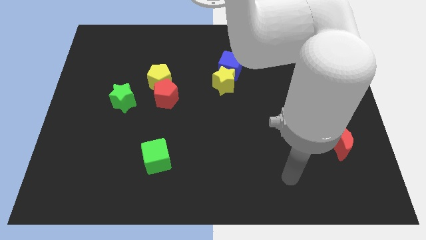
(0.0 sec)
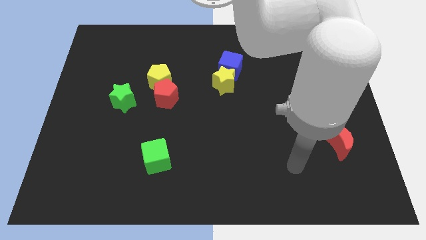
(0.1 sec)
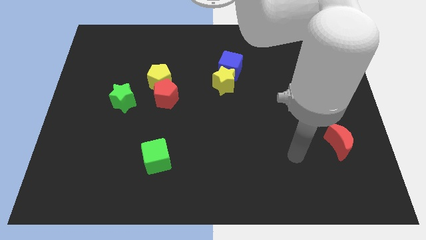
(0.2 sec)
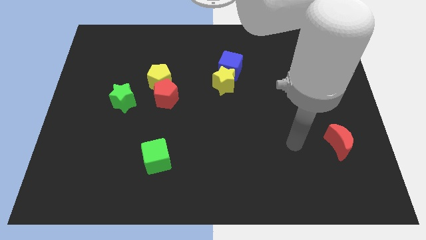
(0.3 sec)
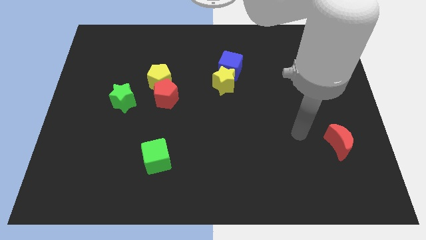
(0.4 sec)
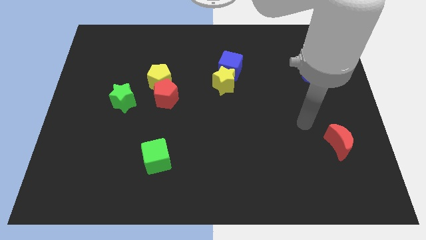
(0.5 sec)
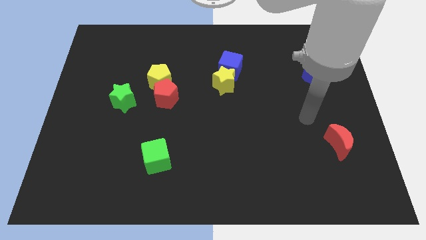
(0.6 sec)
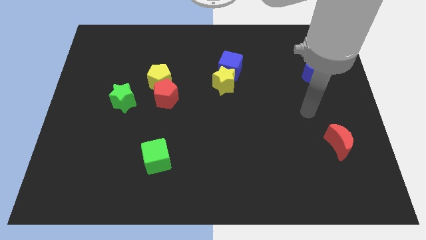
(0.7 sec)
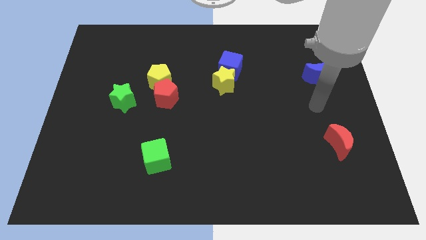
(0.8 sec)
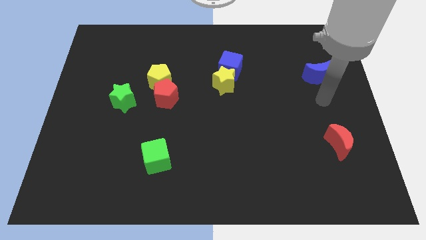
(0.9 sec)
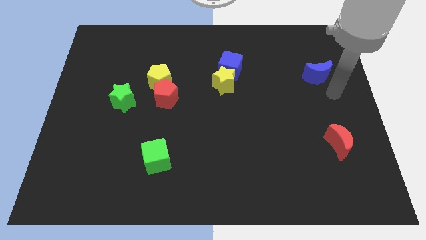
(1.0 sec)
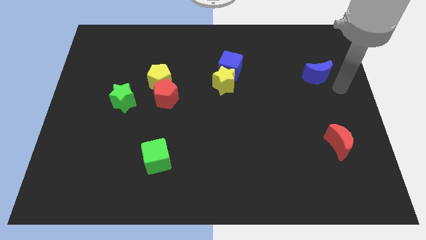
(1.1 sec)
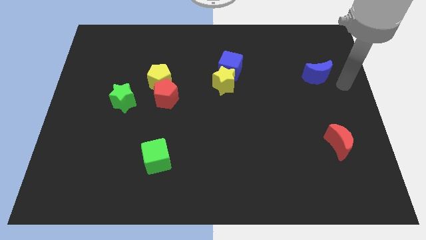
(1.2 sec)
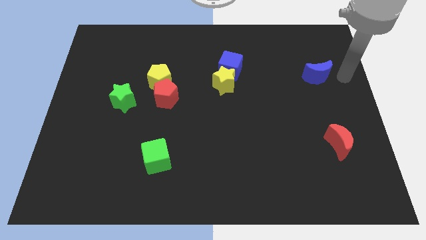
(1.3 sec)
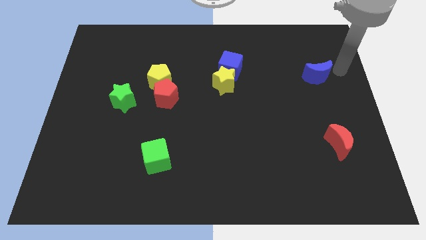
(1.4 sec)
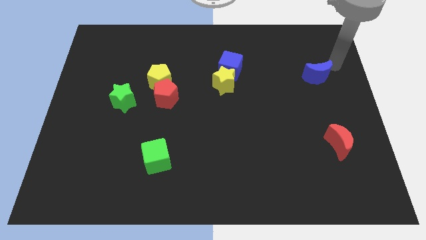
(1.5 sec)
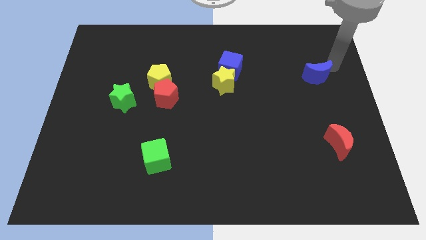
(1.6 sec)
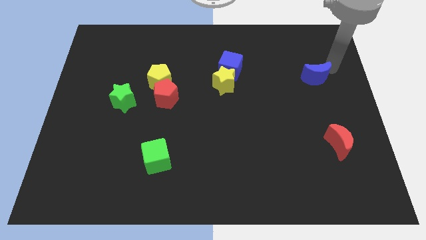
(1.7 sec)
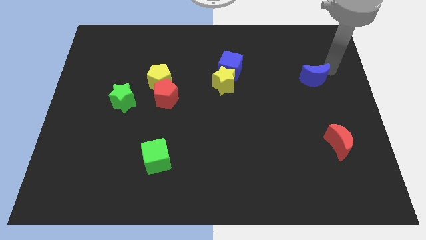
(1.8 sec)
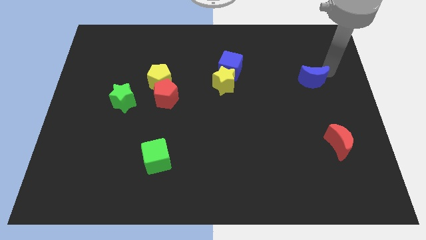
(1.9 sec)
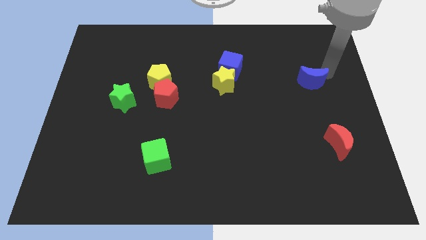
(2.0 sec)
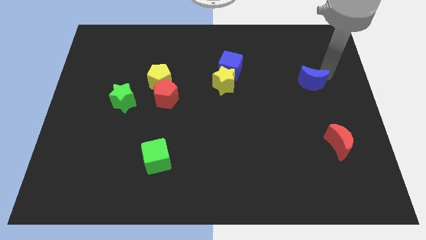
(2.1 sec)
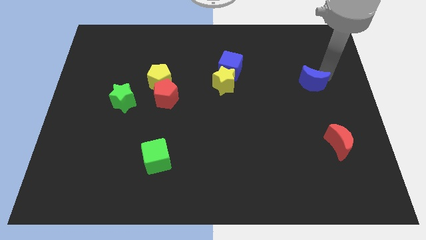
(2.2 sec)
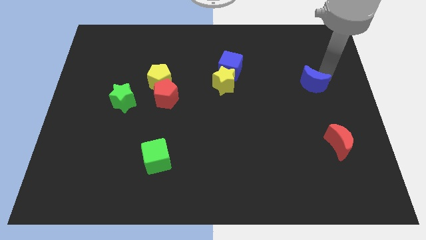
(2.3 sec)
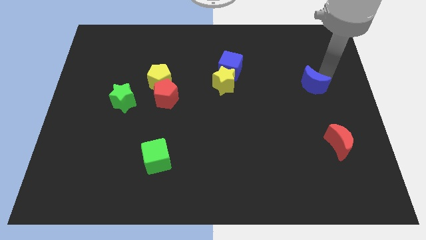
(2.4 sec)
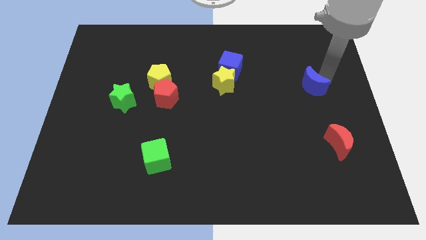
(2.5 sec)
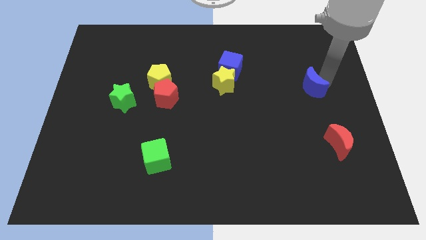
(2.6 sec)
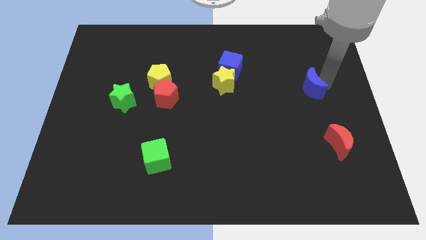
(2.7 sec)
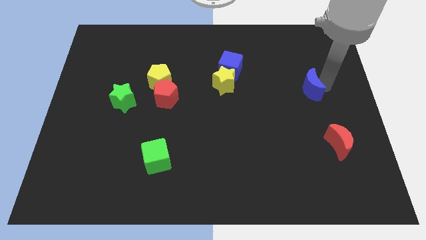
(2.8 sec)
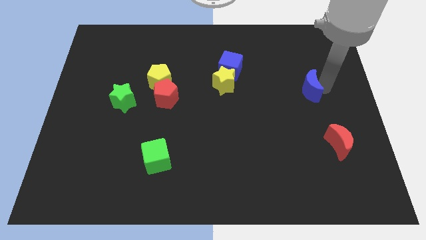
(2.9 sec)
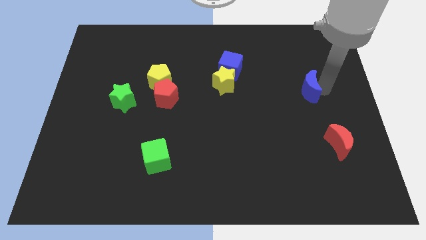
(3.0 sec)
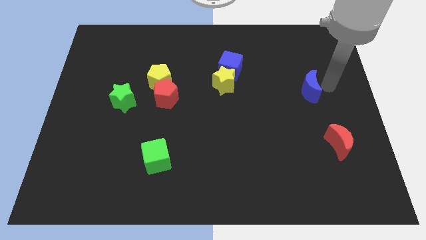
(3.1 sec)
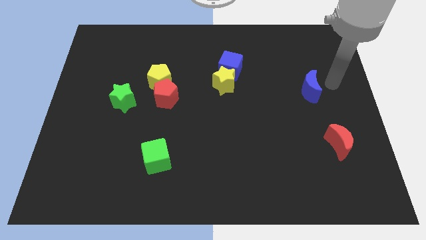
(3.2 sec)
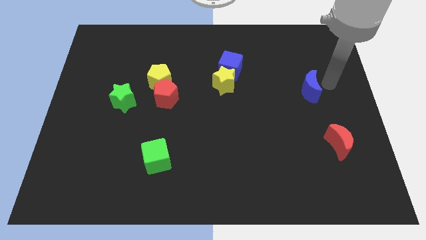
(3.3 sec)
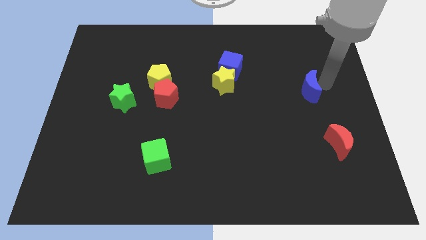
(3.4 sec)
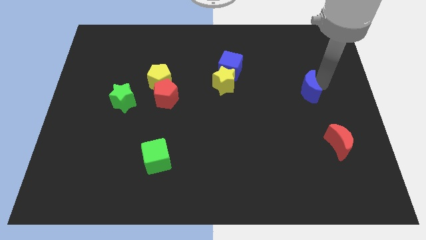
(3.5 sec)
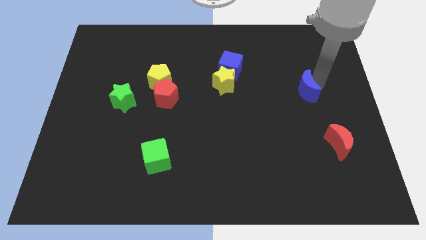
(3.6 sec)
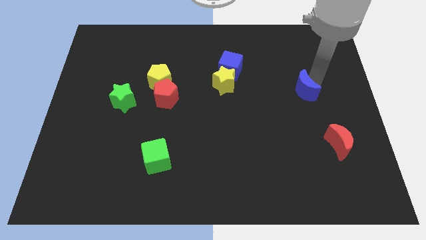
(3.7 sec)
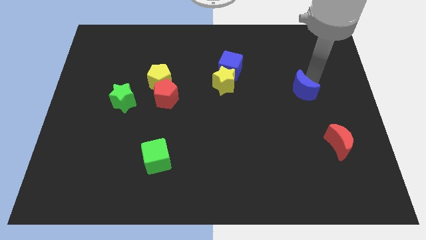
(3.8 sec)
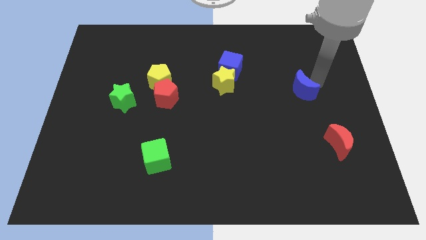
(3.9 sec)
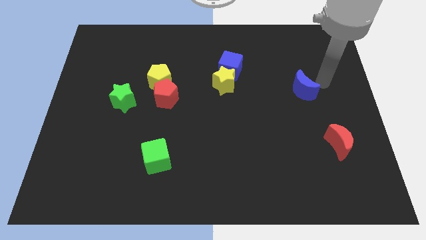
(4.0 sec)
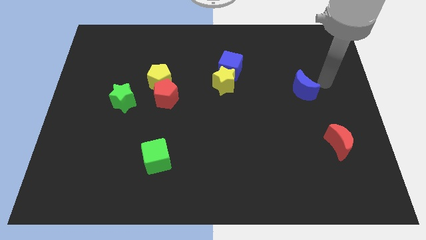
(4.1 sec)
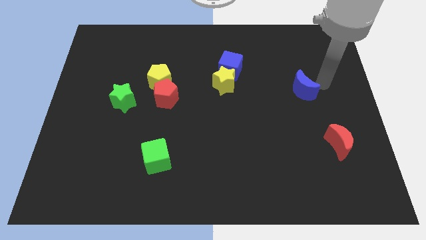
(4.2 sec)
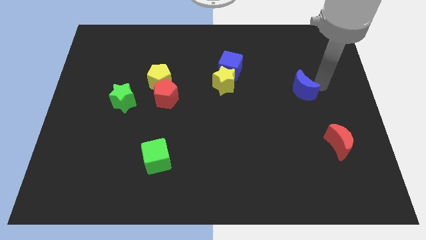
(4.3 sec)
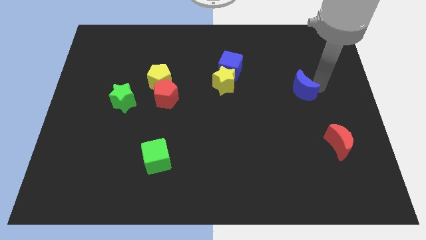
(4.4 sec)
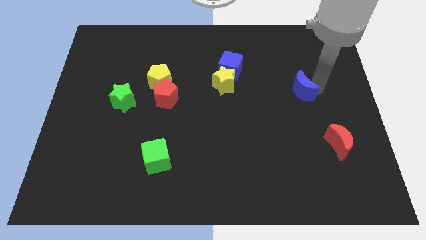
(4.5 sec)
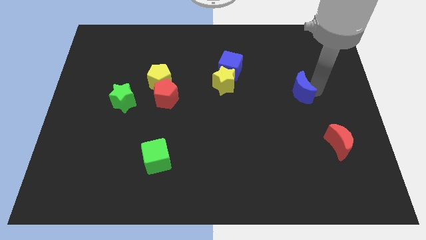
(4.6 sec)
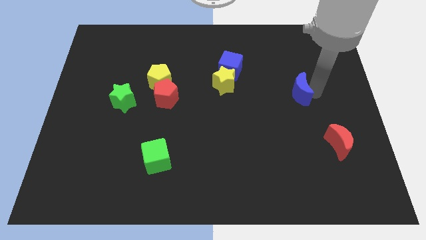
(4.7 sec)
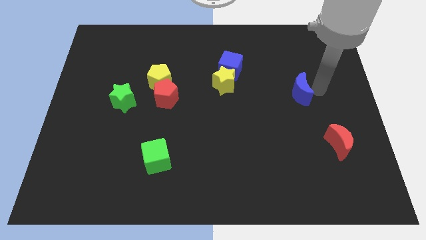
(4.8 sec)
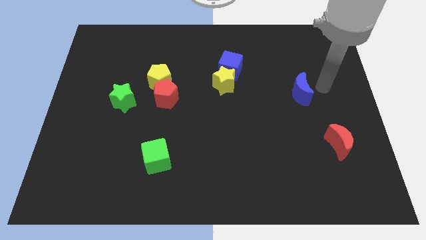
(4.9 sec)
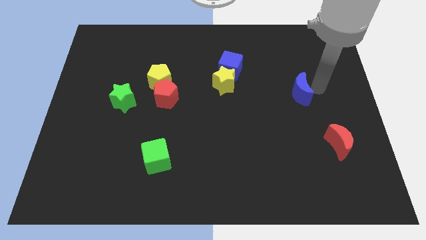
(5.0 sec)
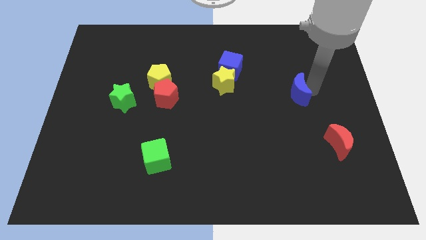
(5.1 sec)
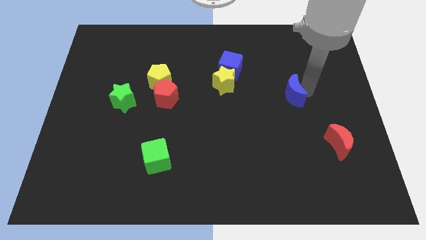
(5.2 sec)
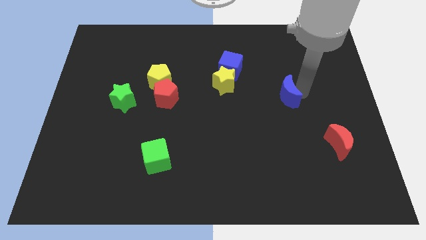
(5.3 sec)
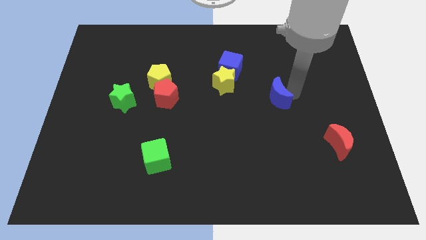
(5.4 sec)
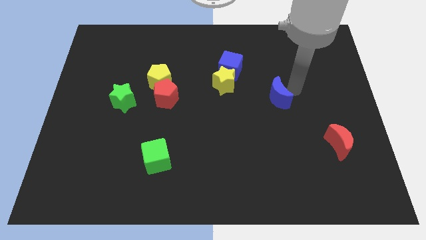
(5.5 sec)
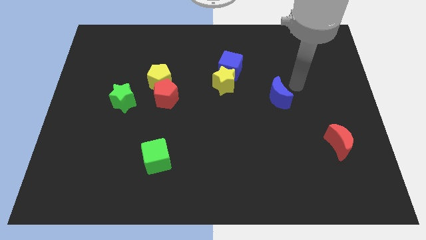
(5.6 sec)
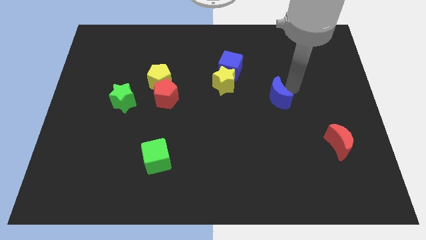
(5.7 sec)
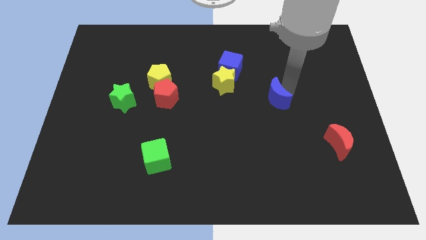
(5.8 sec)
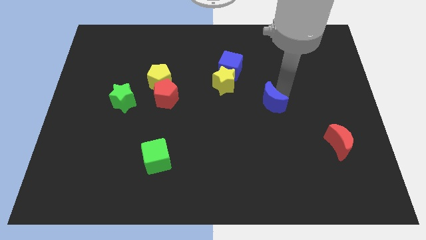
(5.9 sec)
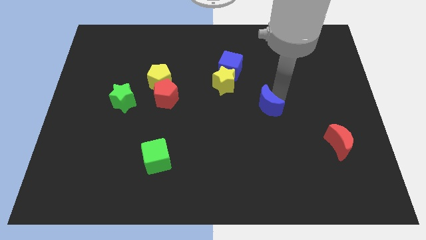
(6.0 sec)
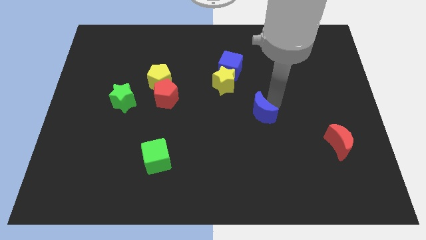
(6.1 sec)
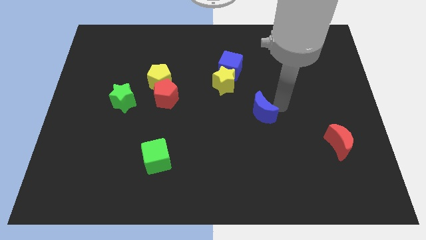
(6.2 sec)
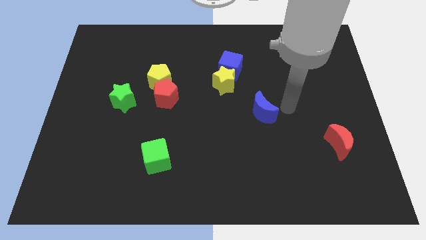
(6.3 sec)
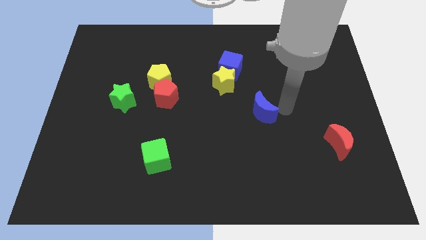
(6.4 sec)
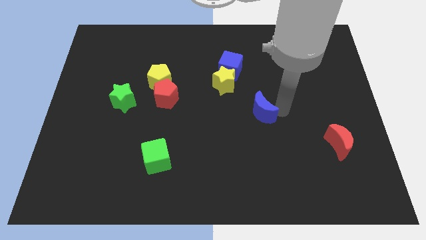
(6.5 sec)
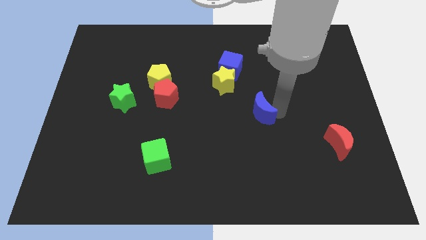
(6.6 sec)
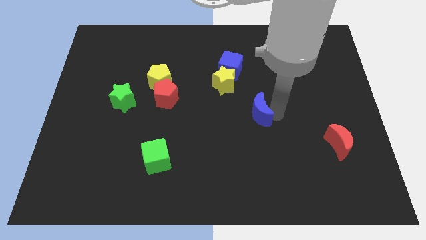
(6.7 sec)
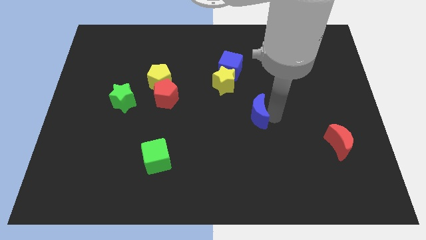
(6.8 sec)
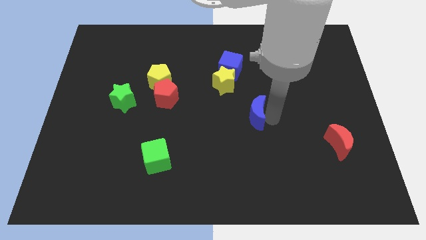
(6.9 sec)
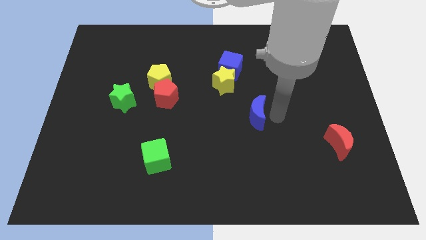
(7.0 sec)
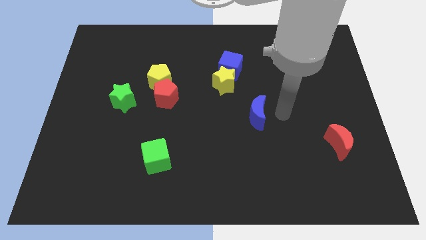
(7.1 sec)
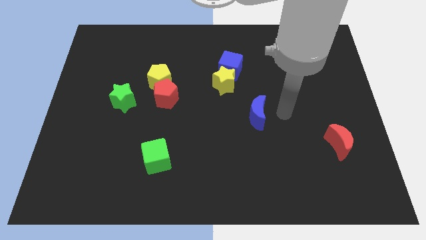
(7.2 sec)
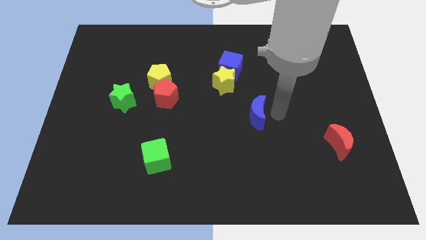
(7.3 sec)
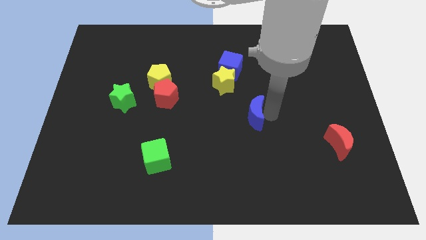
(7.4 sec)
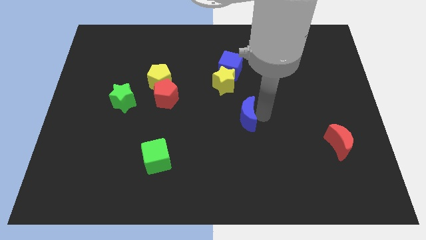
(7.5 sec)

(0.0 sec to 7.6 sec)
move the blue moon below the yellow star
